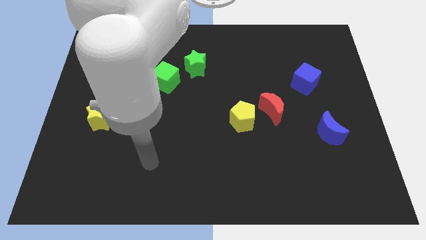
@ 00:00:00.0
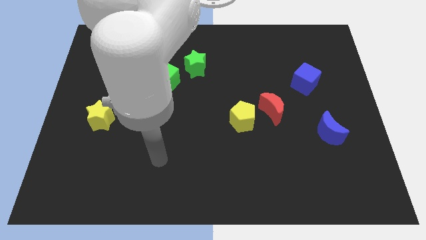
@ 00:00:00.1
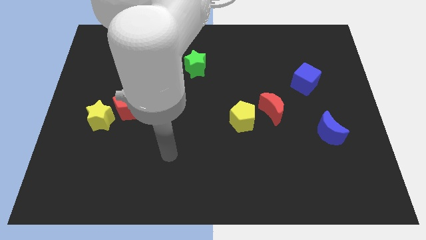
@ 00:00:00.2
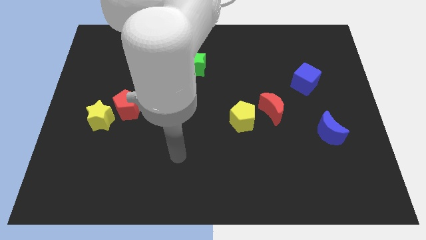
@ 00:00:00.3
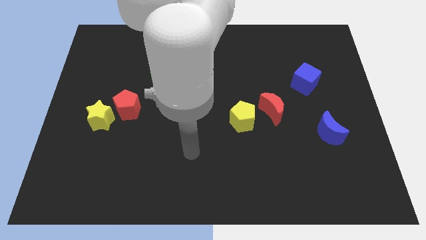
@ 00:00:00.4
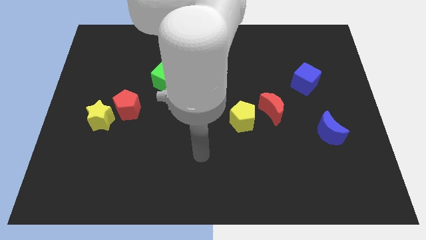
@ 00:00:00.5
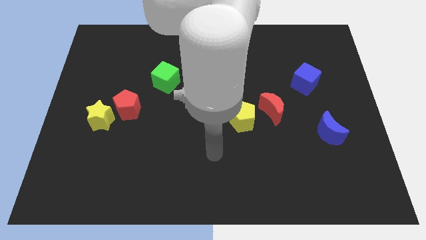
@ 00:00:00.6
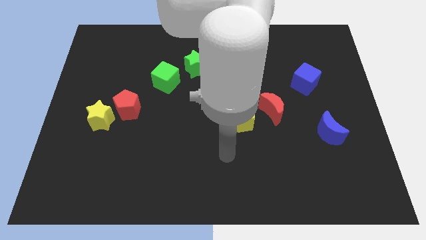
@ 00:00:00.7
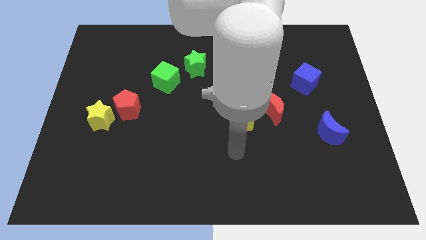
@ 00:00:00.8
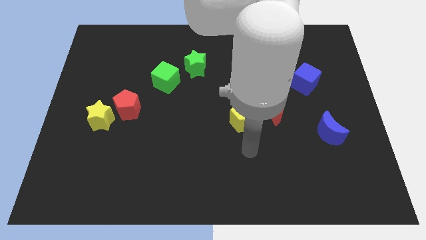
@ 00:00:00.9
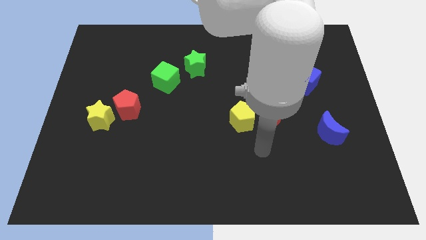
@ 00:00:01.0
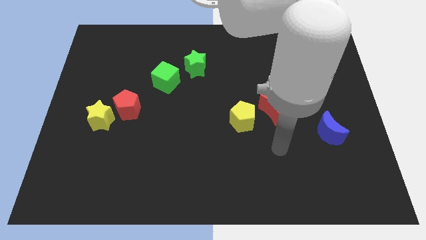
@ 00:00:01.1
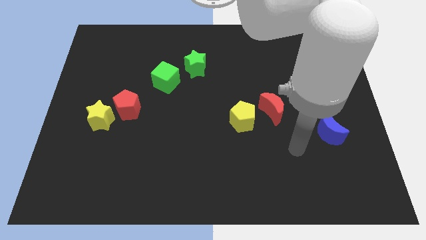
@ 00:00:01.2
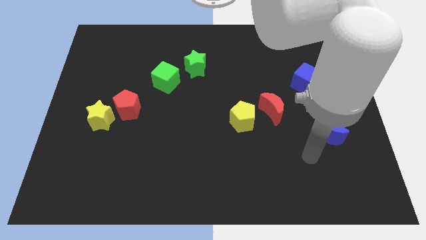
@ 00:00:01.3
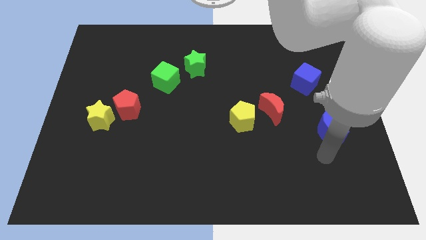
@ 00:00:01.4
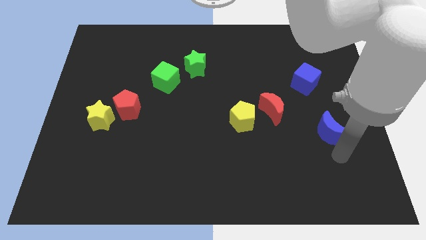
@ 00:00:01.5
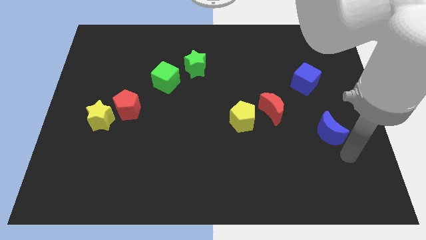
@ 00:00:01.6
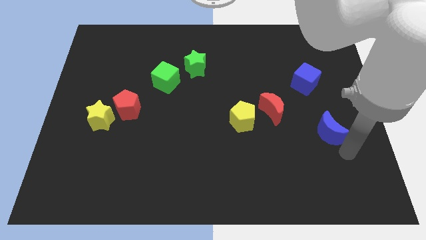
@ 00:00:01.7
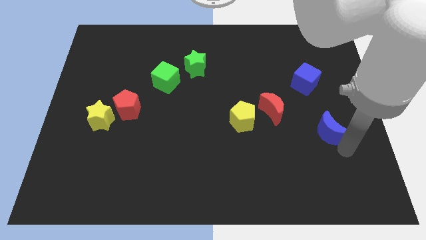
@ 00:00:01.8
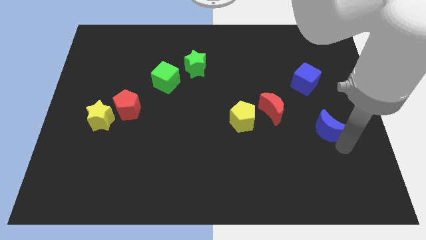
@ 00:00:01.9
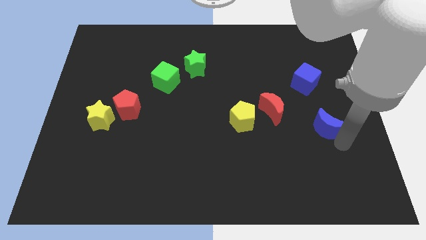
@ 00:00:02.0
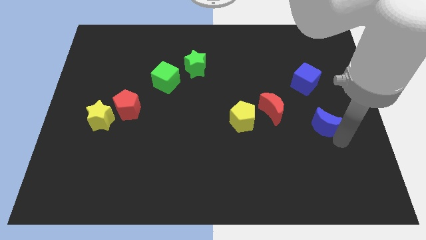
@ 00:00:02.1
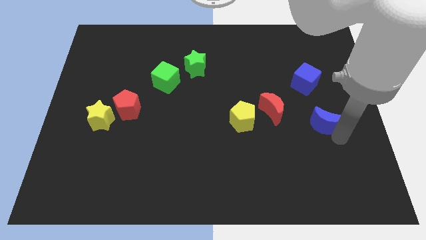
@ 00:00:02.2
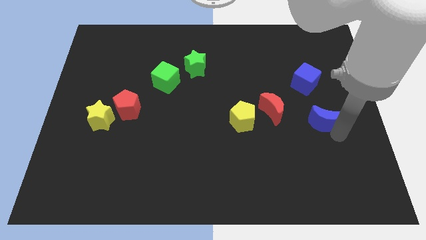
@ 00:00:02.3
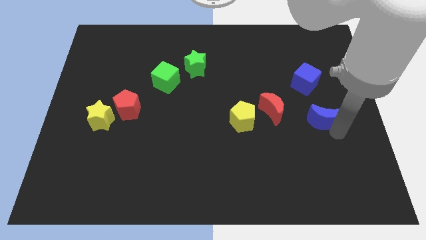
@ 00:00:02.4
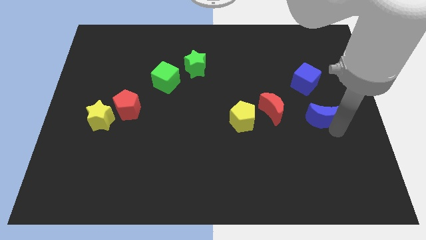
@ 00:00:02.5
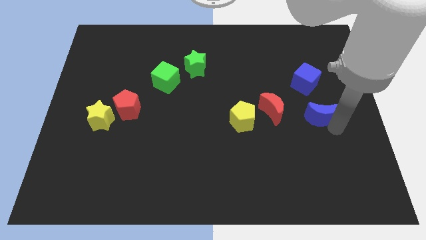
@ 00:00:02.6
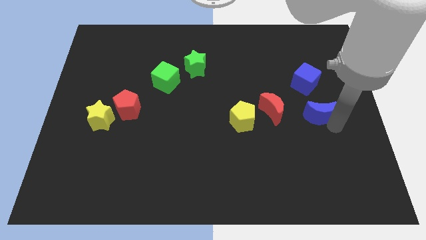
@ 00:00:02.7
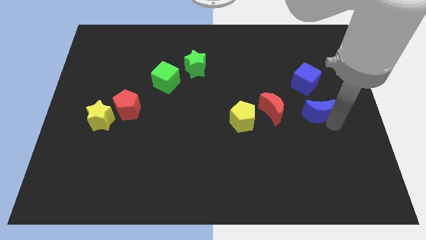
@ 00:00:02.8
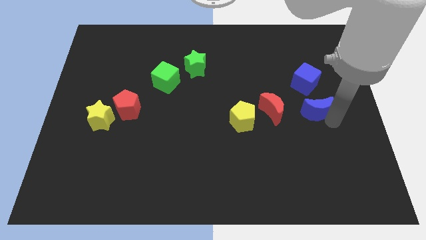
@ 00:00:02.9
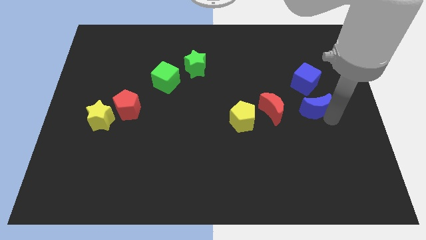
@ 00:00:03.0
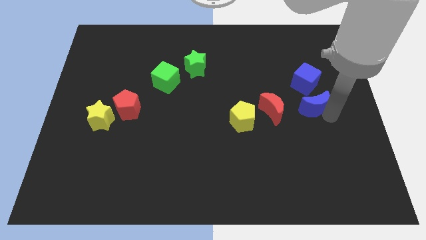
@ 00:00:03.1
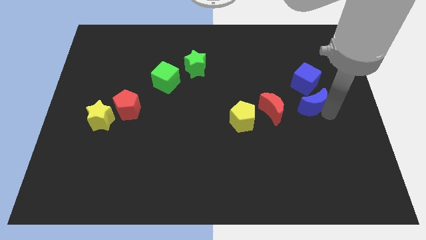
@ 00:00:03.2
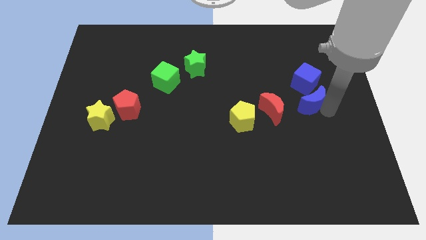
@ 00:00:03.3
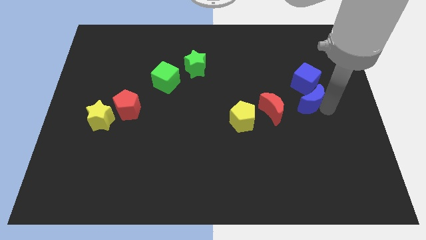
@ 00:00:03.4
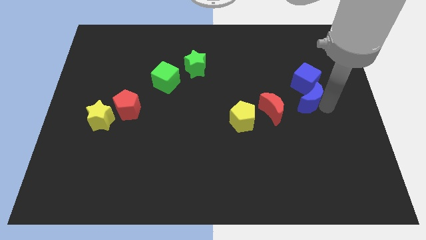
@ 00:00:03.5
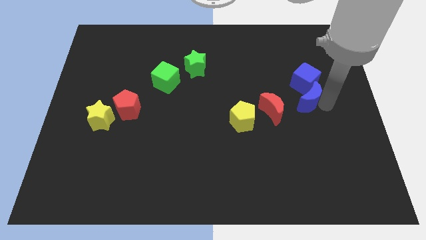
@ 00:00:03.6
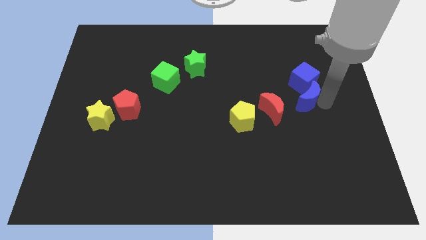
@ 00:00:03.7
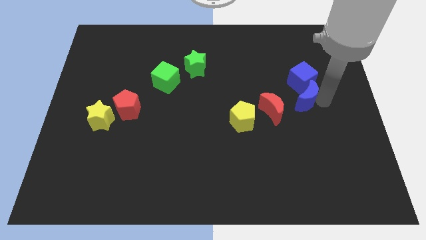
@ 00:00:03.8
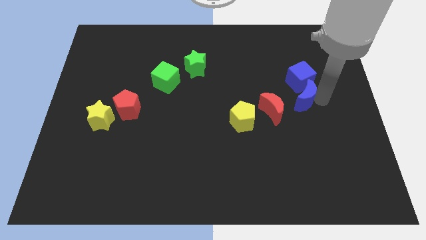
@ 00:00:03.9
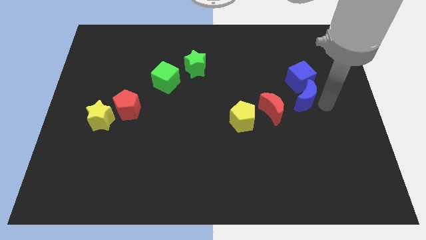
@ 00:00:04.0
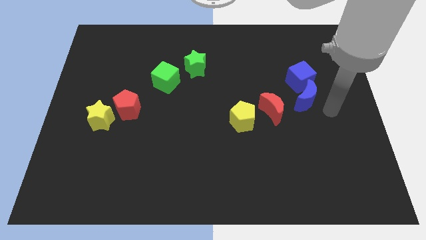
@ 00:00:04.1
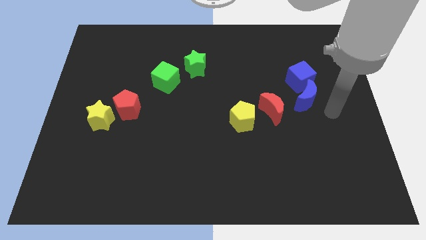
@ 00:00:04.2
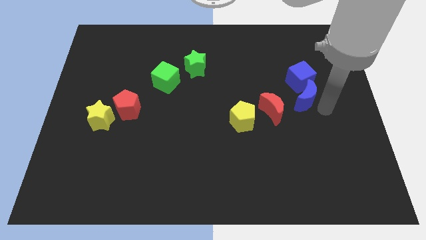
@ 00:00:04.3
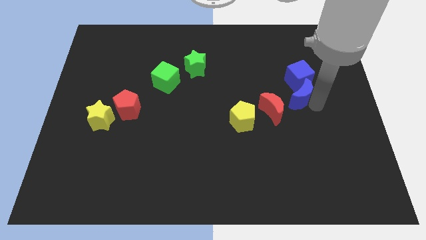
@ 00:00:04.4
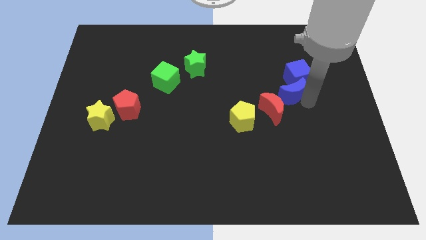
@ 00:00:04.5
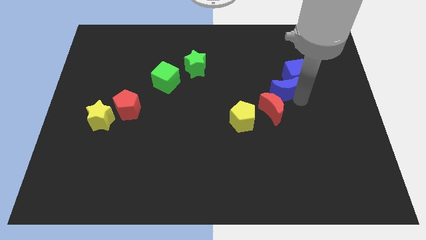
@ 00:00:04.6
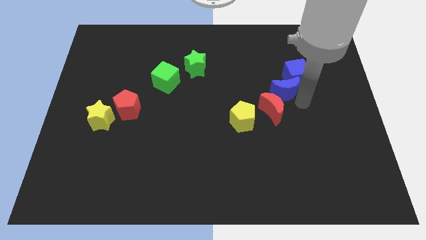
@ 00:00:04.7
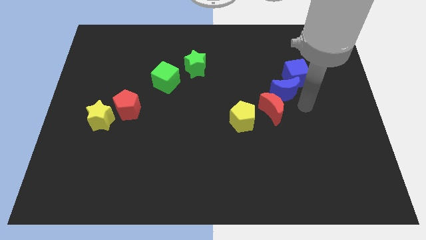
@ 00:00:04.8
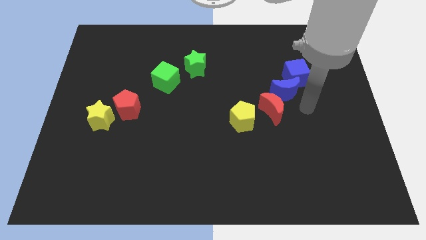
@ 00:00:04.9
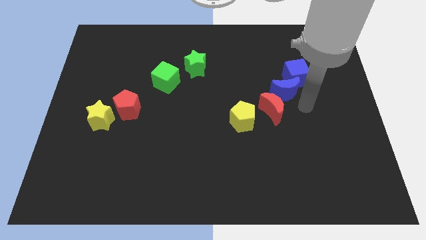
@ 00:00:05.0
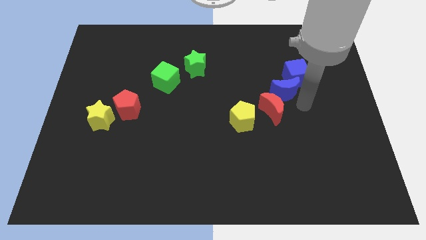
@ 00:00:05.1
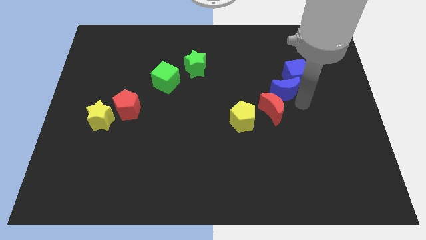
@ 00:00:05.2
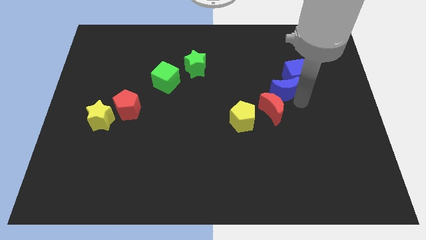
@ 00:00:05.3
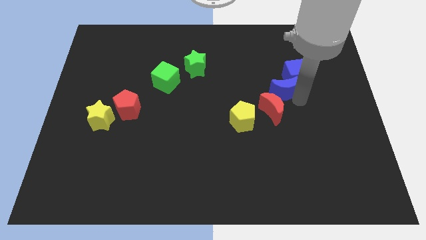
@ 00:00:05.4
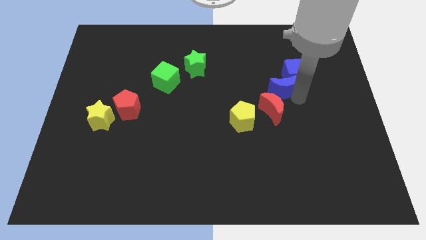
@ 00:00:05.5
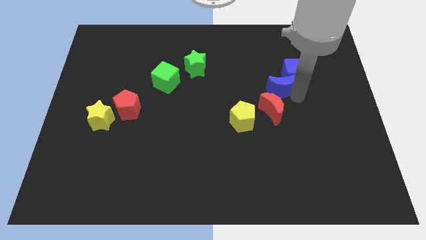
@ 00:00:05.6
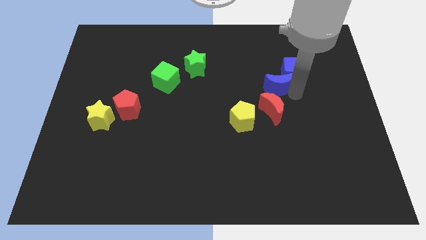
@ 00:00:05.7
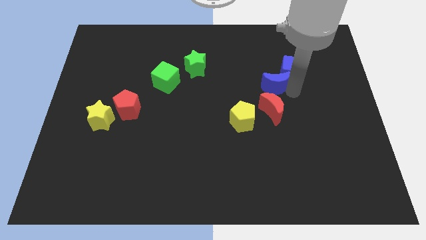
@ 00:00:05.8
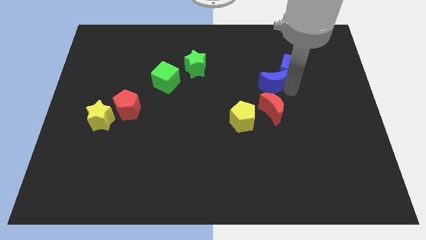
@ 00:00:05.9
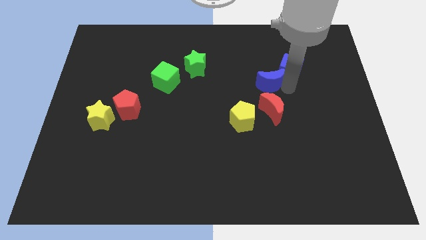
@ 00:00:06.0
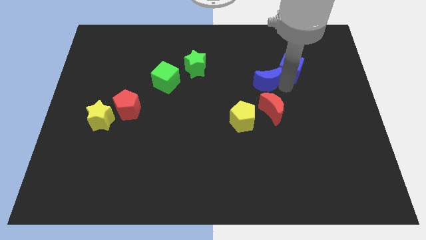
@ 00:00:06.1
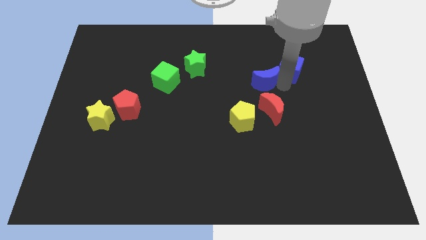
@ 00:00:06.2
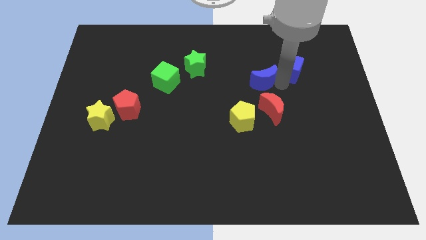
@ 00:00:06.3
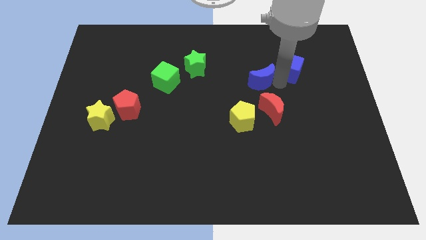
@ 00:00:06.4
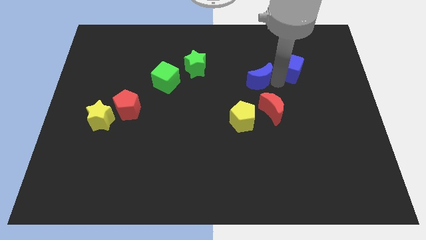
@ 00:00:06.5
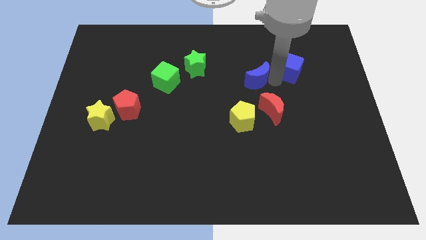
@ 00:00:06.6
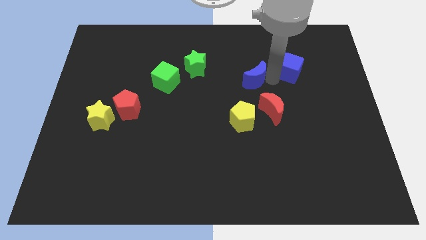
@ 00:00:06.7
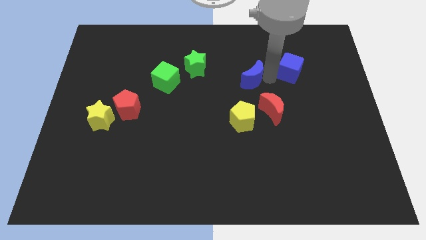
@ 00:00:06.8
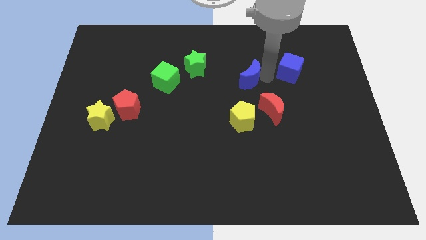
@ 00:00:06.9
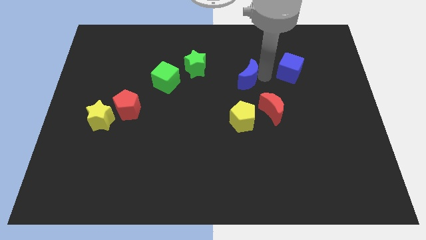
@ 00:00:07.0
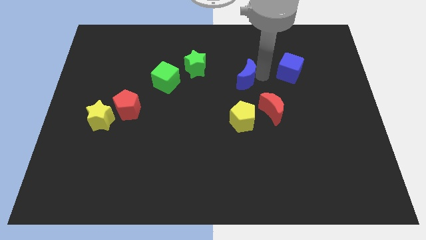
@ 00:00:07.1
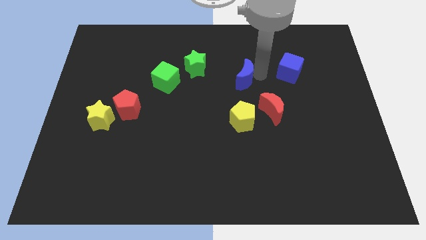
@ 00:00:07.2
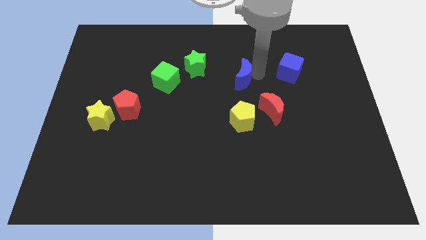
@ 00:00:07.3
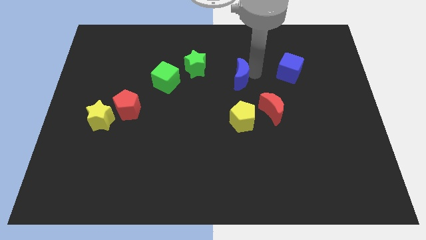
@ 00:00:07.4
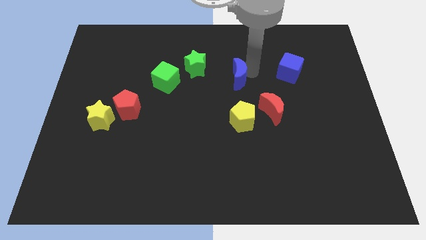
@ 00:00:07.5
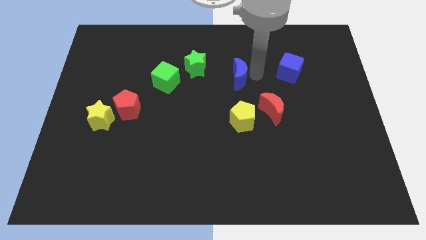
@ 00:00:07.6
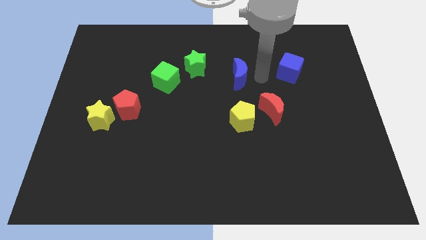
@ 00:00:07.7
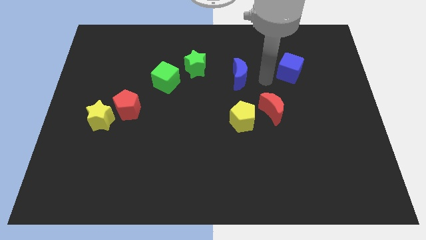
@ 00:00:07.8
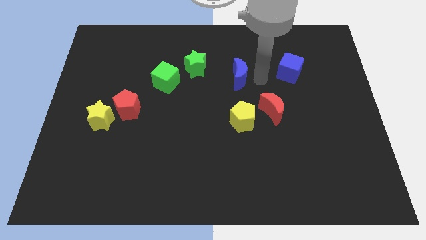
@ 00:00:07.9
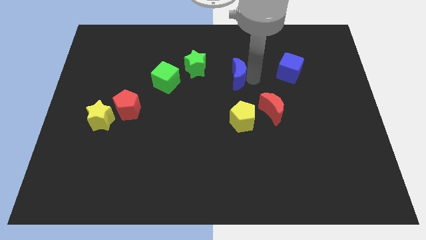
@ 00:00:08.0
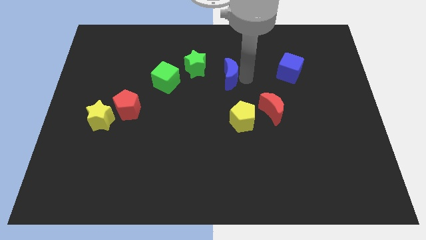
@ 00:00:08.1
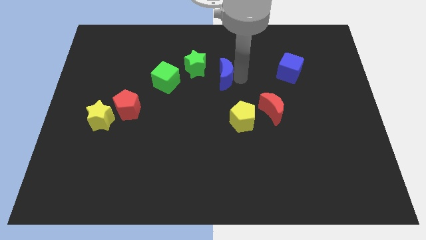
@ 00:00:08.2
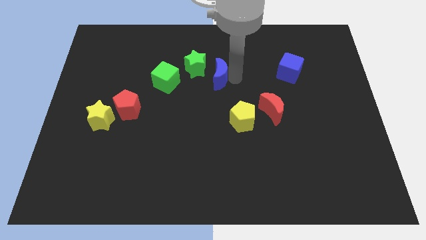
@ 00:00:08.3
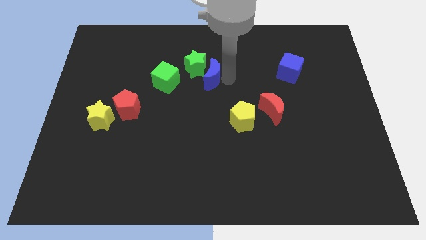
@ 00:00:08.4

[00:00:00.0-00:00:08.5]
put the blue moon next to the green star
